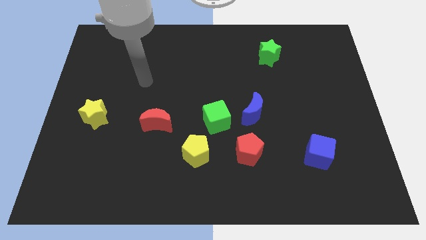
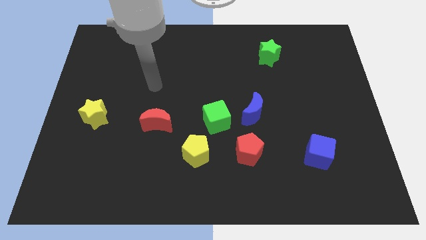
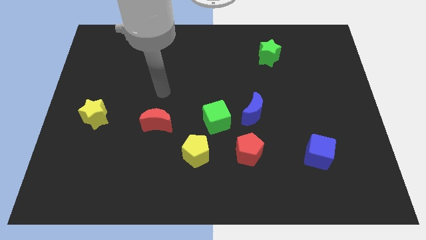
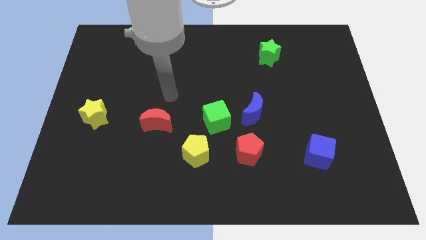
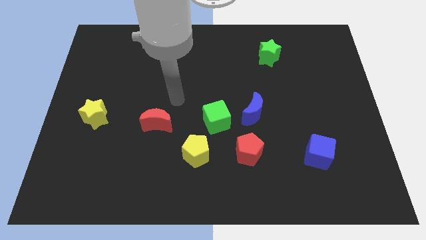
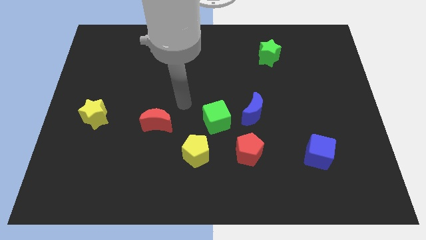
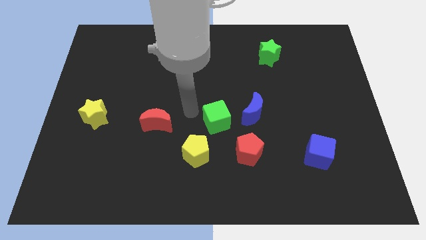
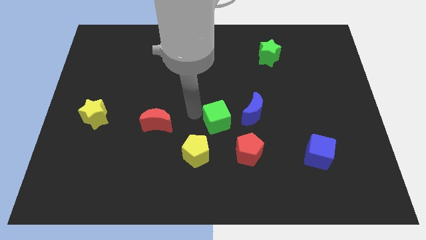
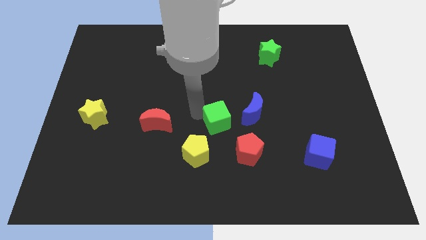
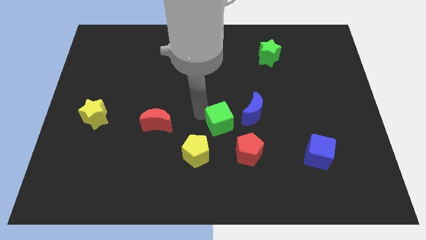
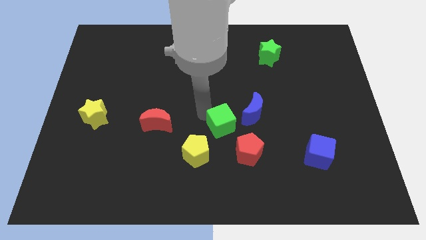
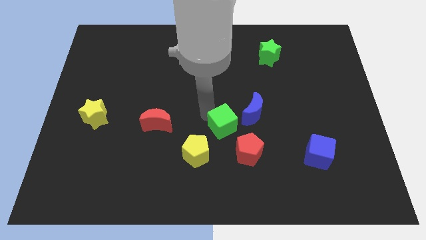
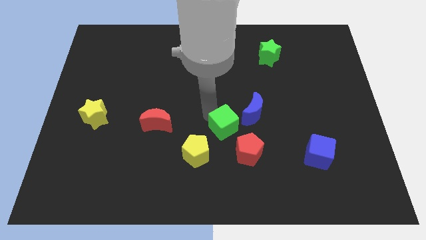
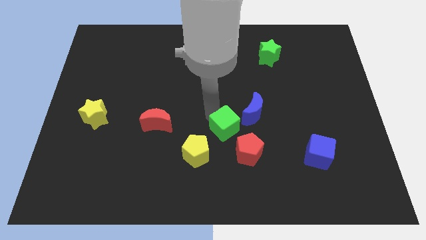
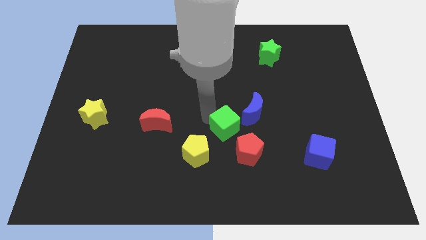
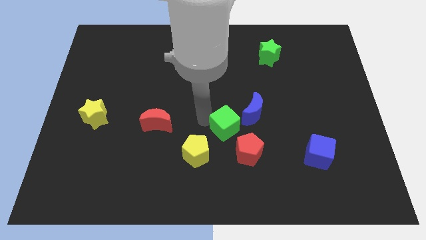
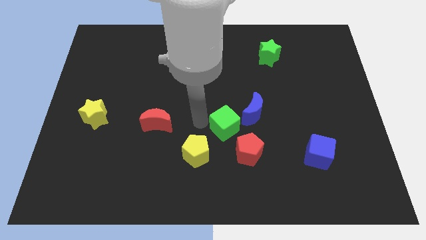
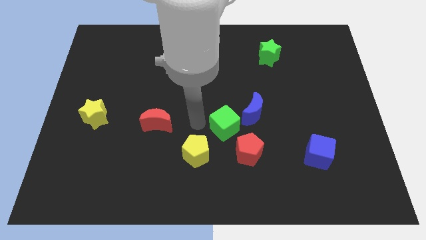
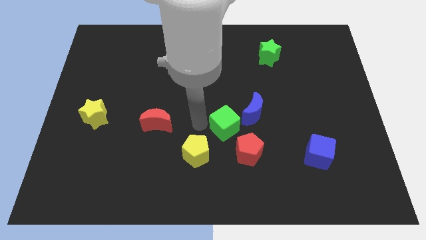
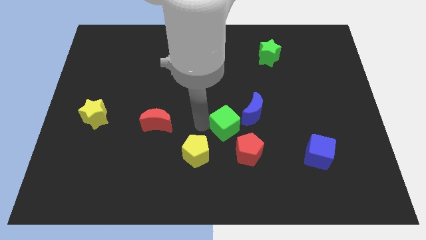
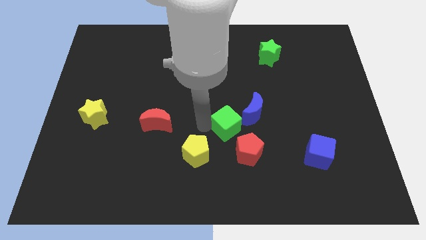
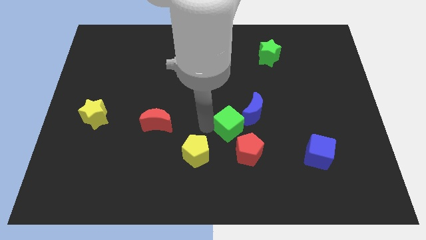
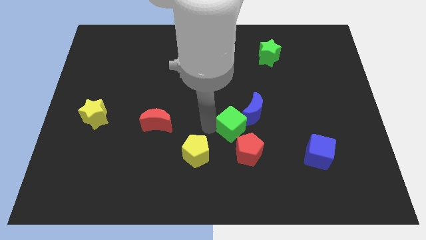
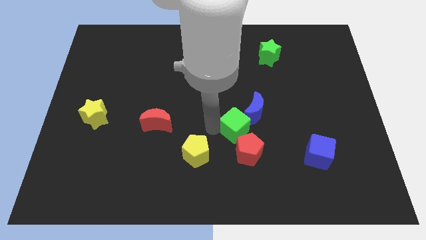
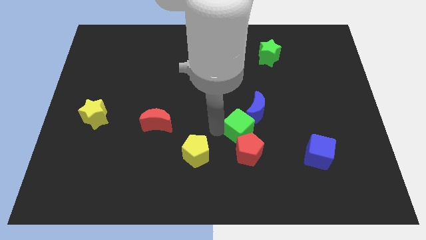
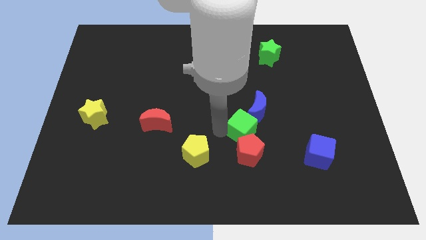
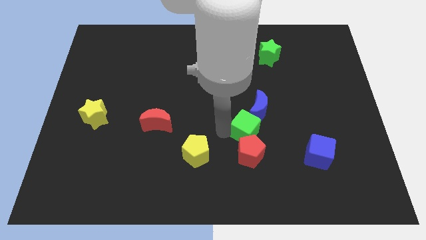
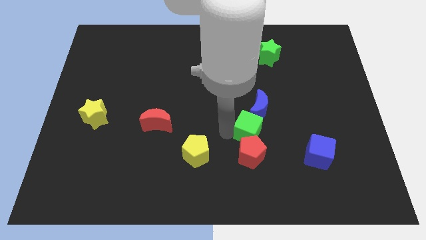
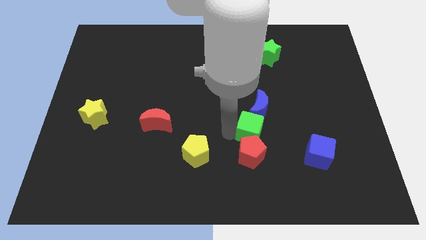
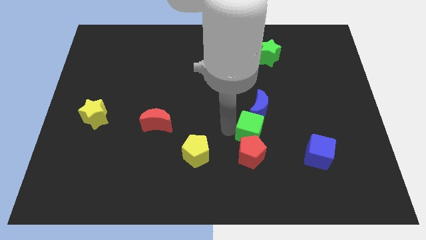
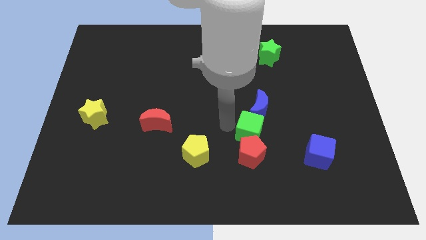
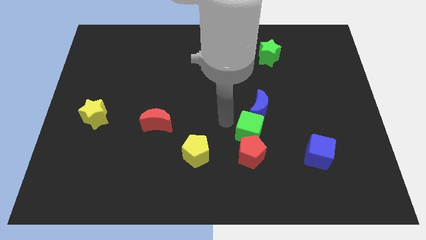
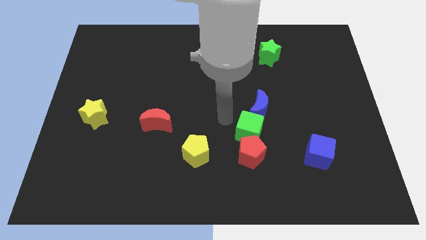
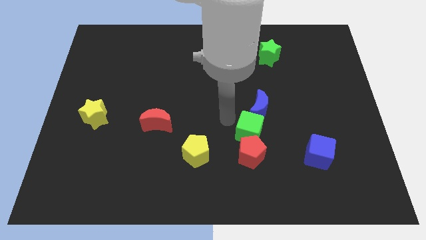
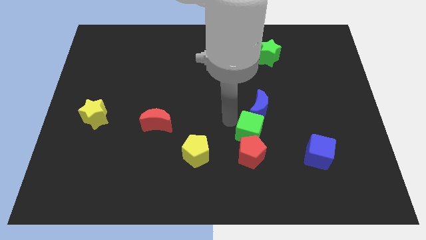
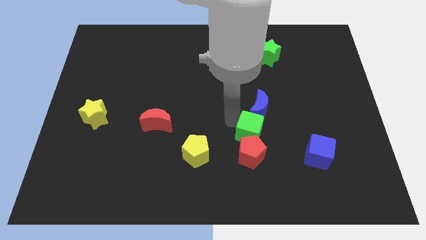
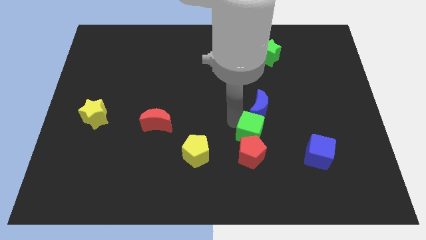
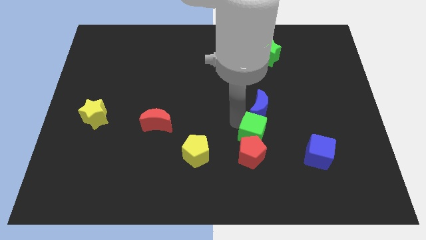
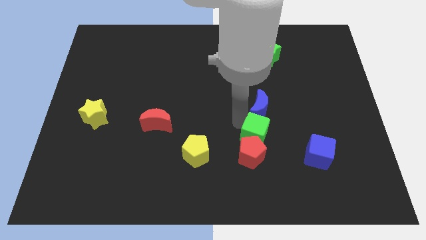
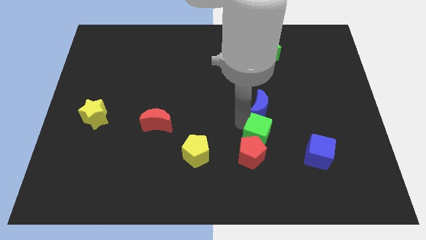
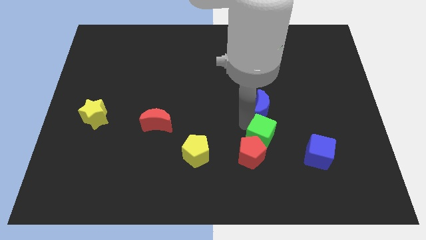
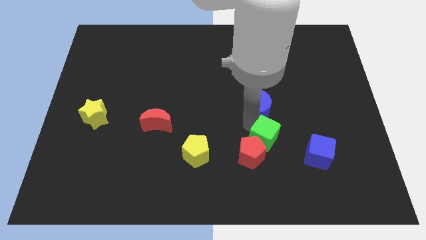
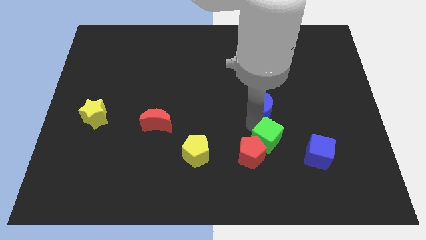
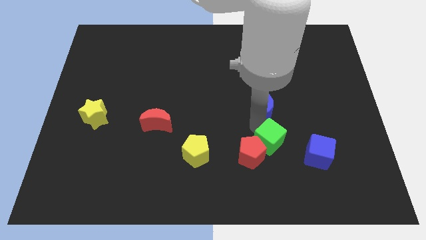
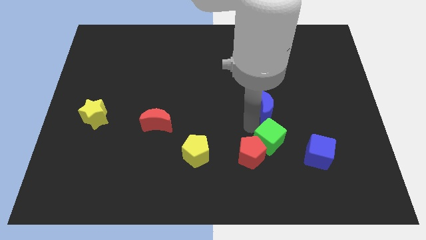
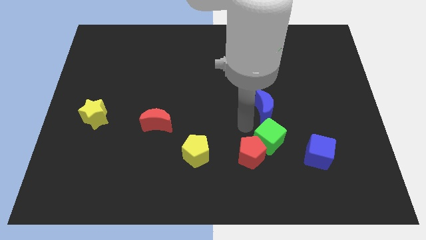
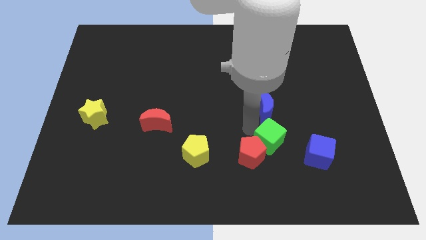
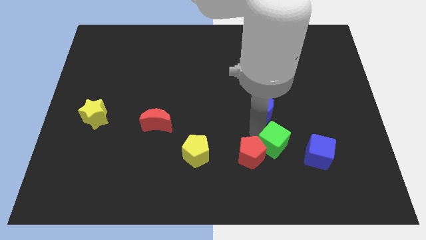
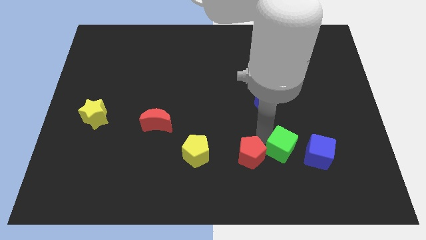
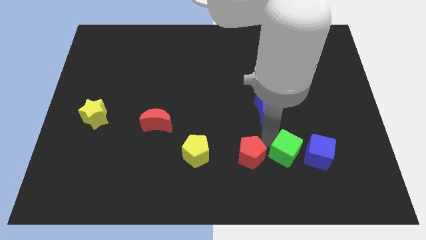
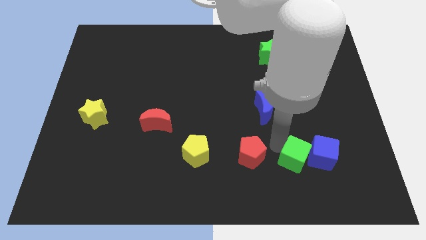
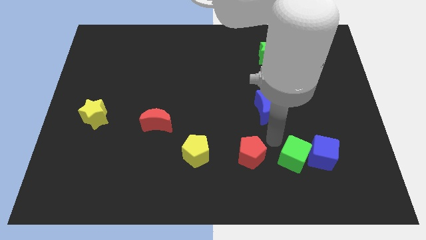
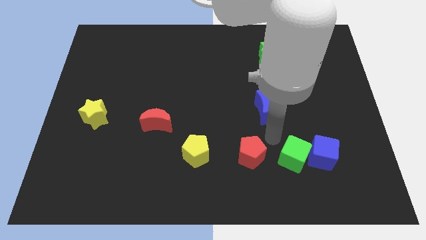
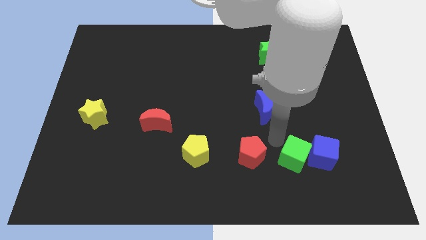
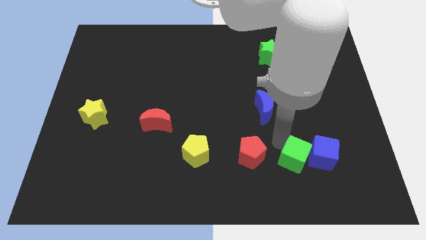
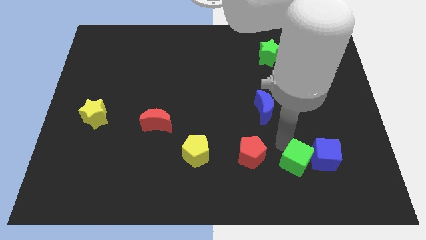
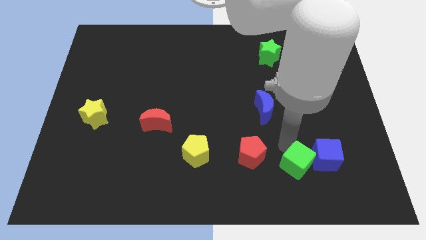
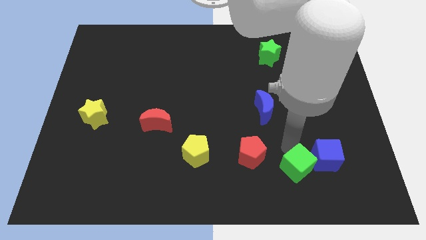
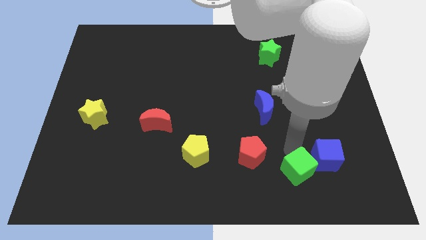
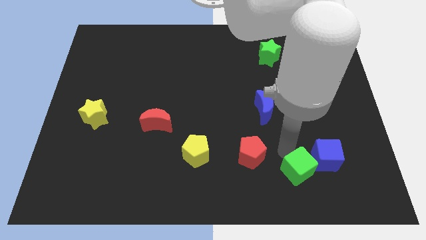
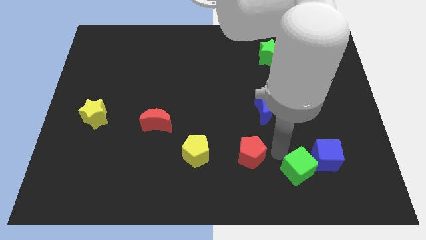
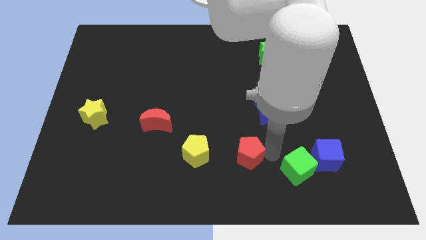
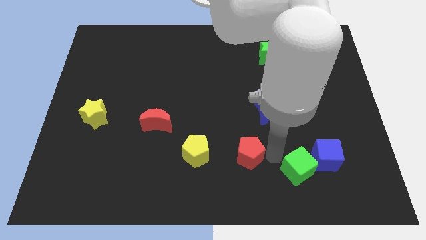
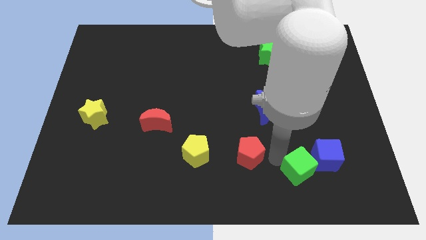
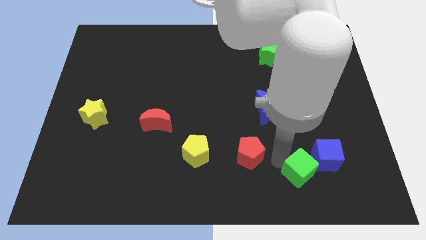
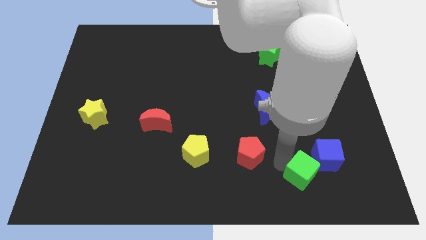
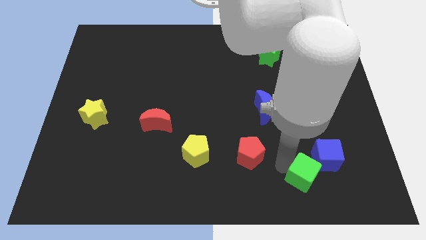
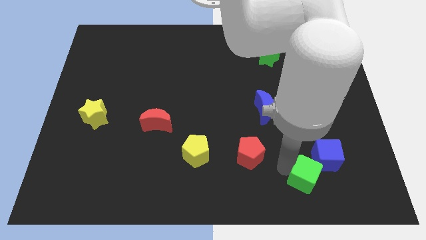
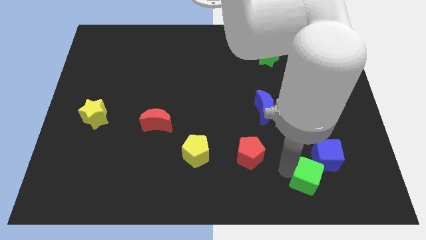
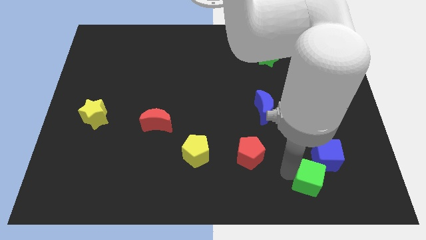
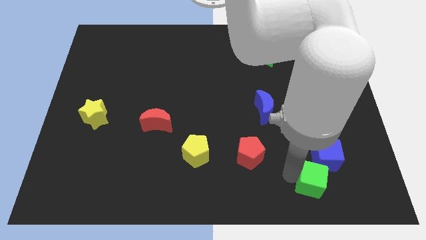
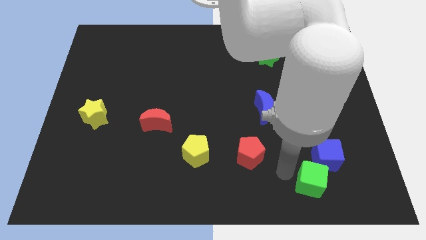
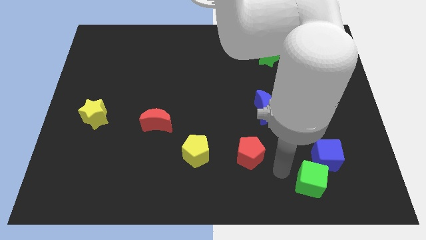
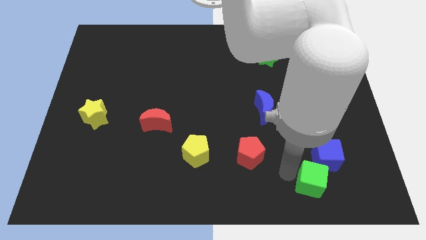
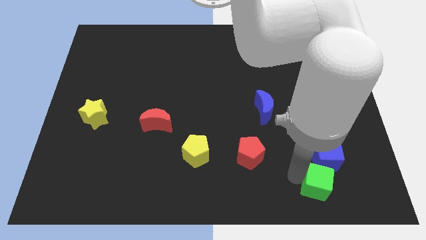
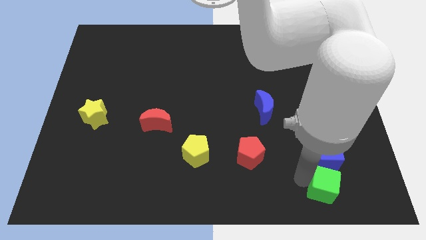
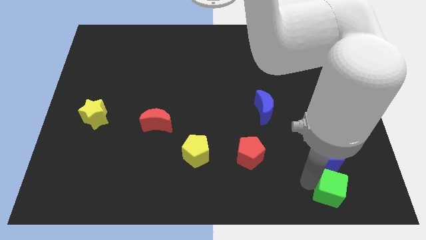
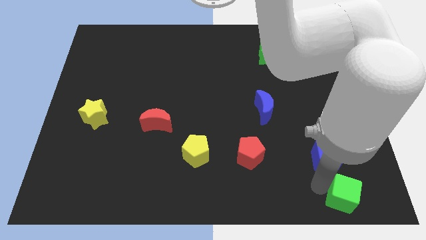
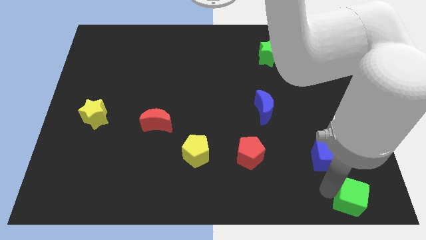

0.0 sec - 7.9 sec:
move the green cube to the bottom right
